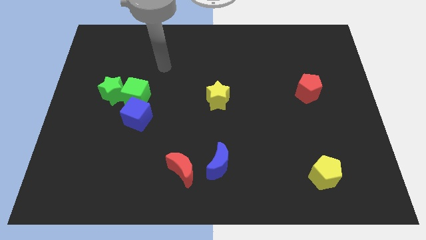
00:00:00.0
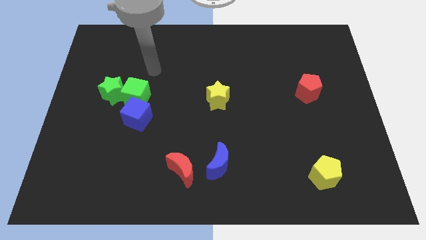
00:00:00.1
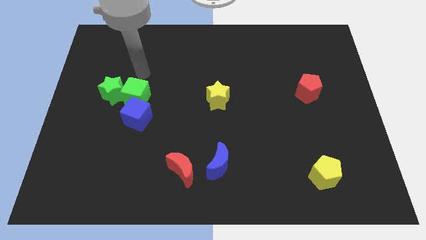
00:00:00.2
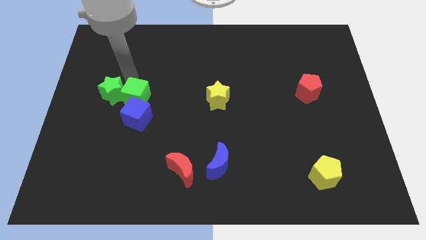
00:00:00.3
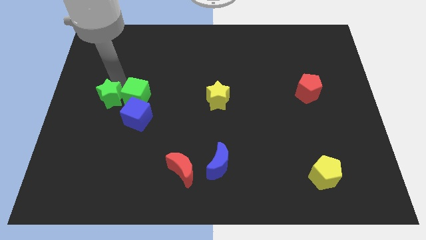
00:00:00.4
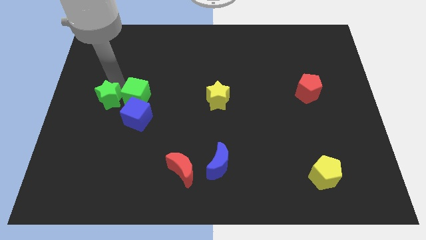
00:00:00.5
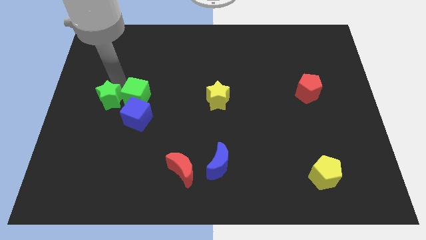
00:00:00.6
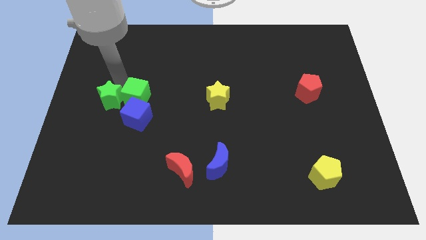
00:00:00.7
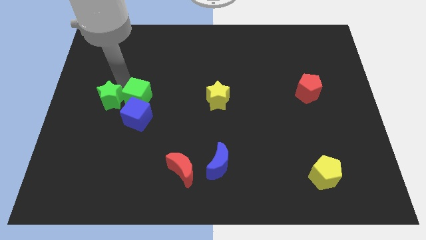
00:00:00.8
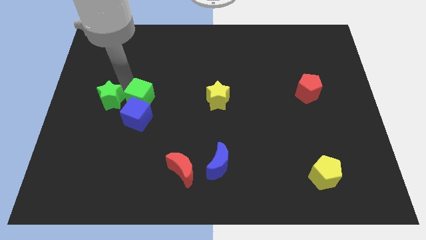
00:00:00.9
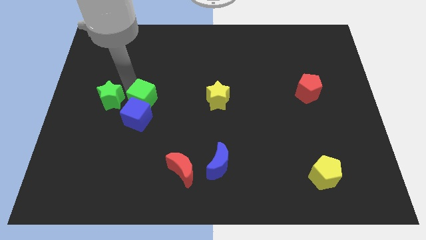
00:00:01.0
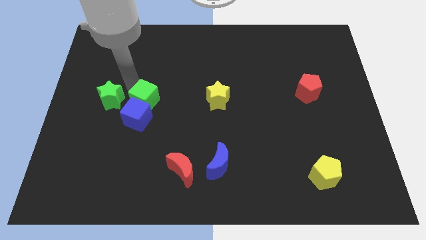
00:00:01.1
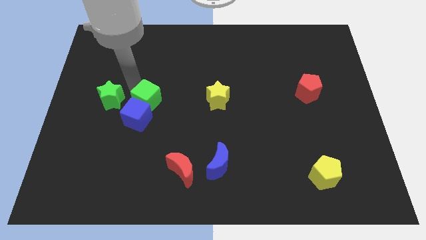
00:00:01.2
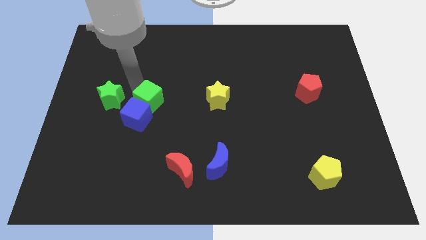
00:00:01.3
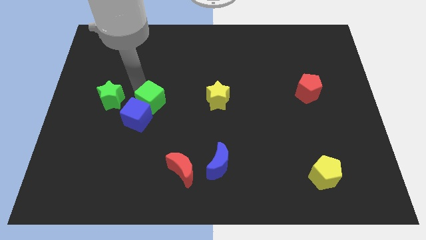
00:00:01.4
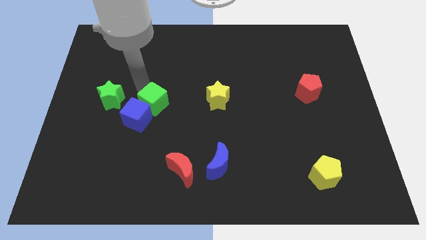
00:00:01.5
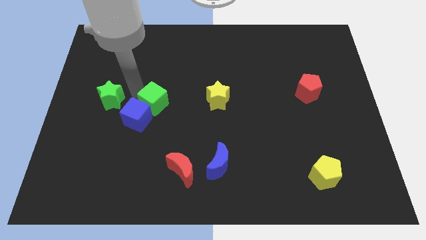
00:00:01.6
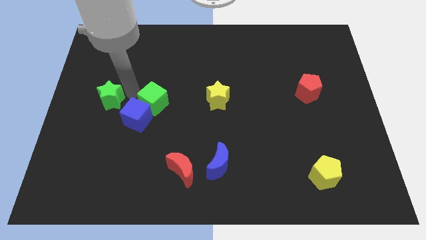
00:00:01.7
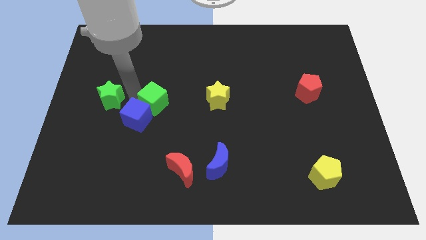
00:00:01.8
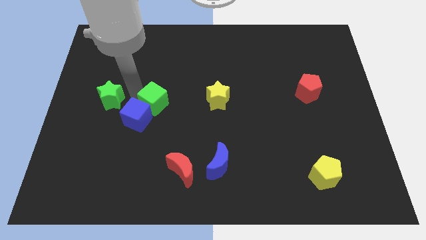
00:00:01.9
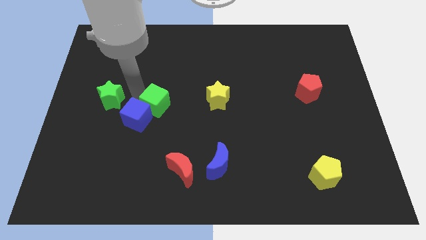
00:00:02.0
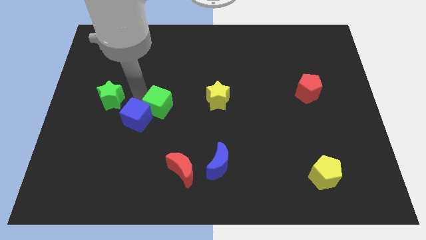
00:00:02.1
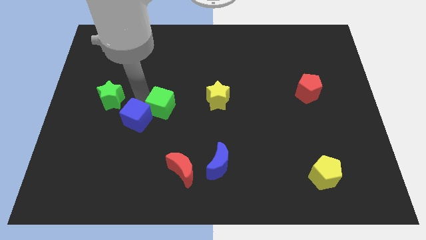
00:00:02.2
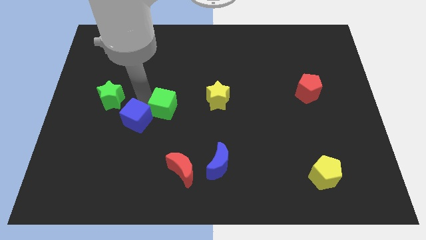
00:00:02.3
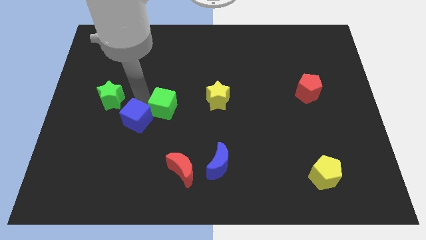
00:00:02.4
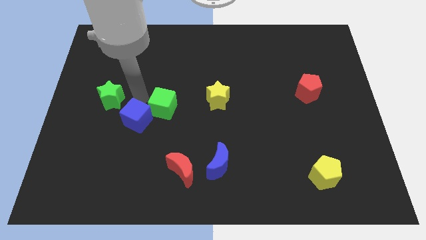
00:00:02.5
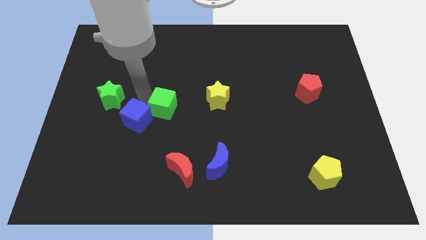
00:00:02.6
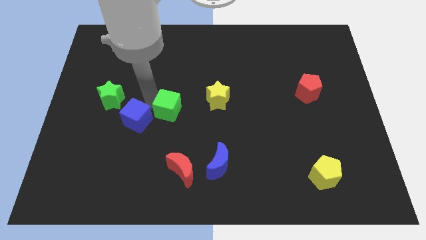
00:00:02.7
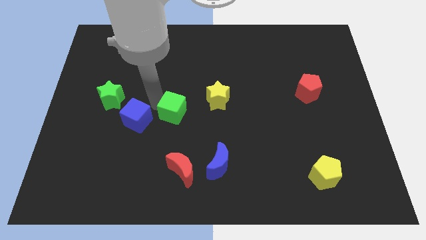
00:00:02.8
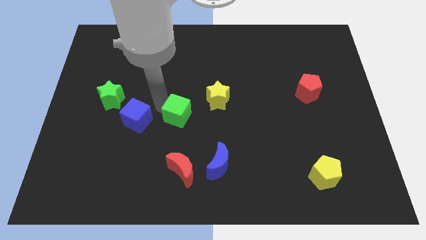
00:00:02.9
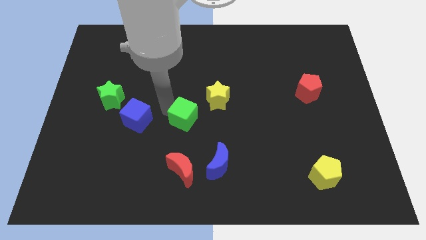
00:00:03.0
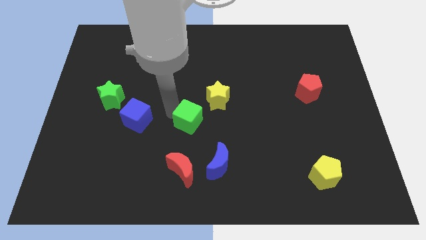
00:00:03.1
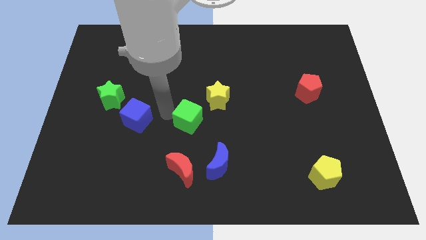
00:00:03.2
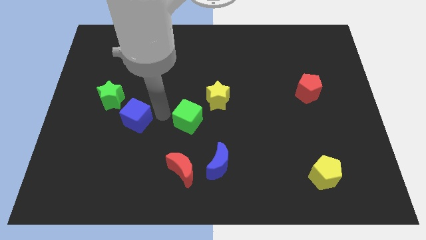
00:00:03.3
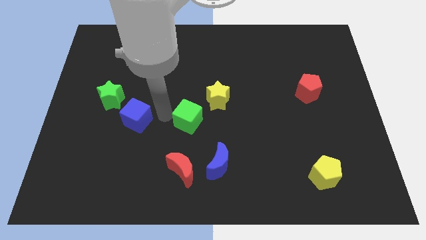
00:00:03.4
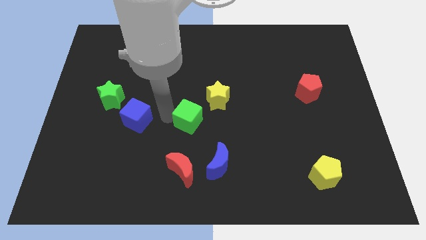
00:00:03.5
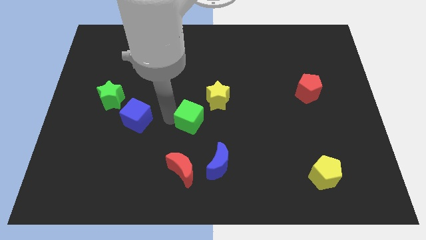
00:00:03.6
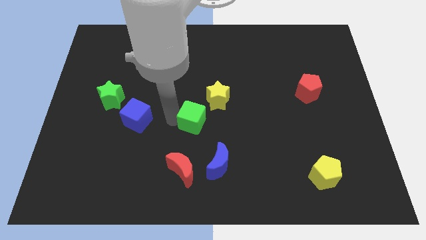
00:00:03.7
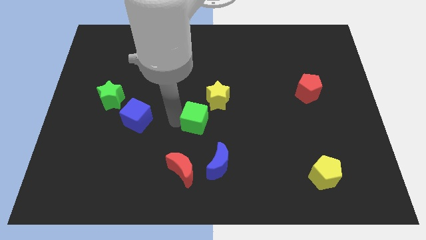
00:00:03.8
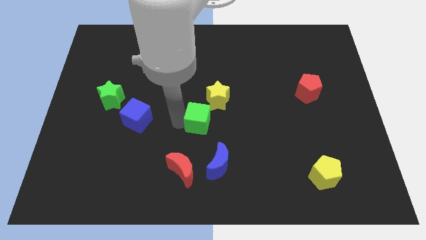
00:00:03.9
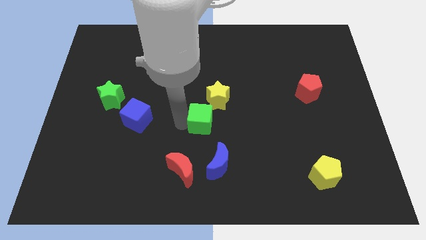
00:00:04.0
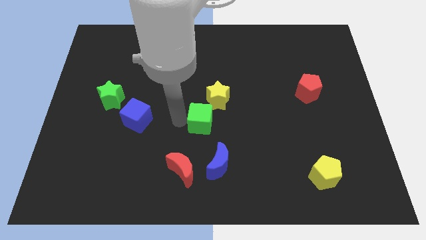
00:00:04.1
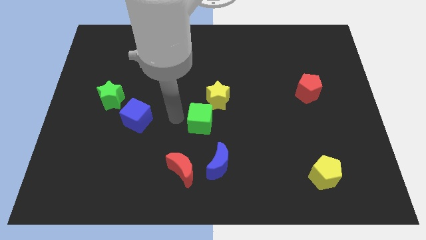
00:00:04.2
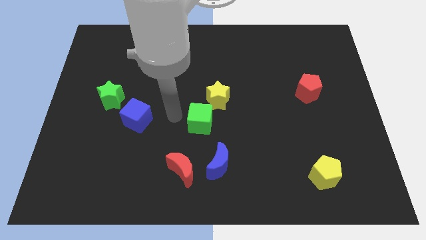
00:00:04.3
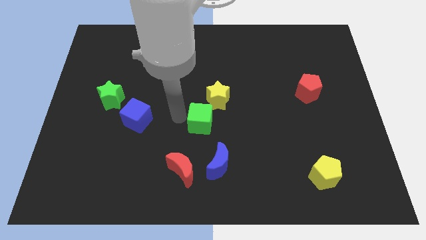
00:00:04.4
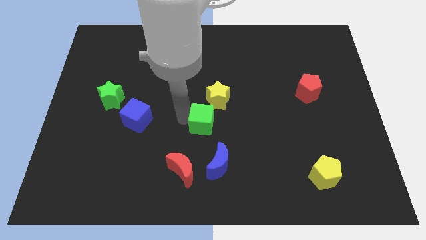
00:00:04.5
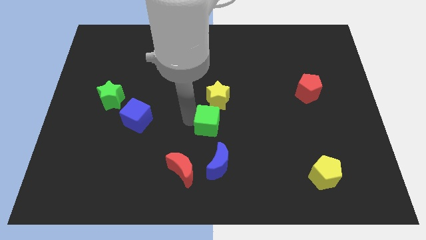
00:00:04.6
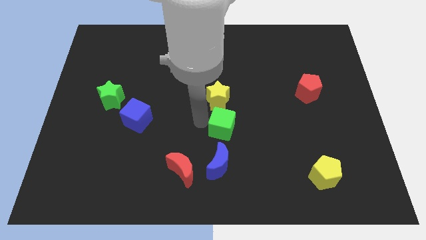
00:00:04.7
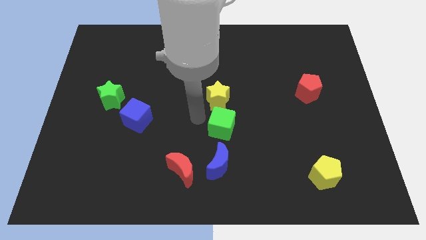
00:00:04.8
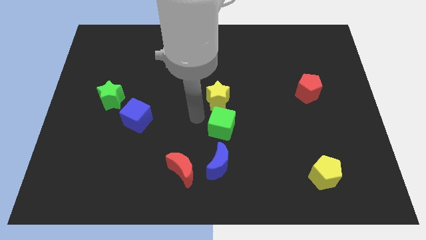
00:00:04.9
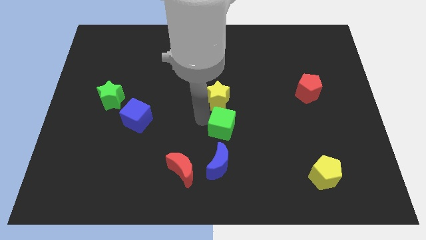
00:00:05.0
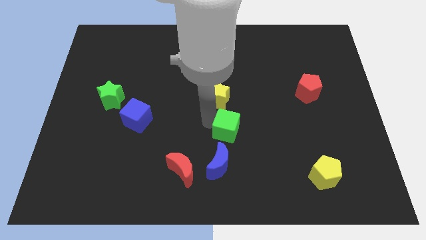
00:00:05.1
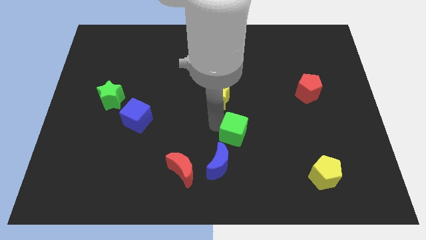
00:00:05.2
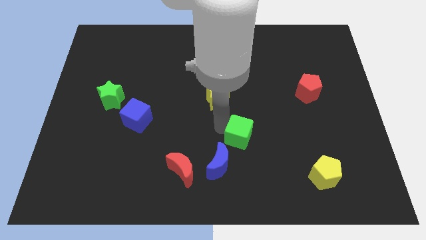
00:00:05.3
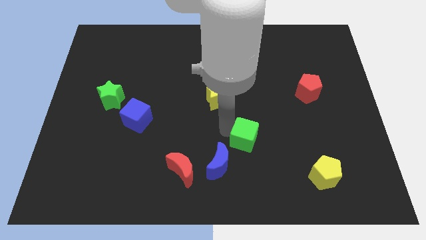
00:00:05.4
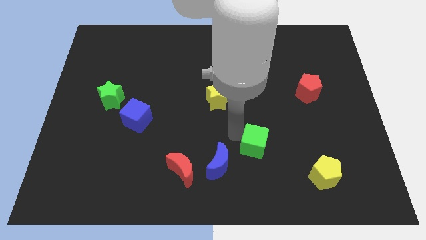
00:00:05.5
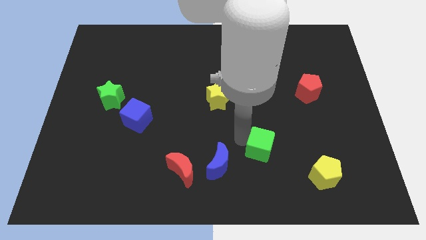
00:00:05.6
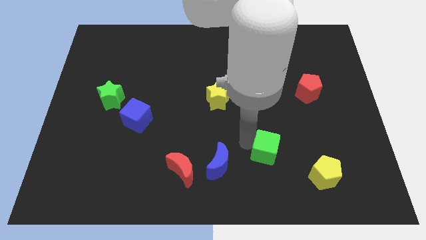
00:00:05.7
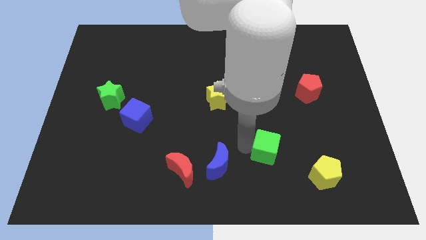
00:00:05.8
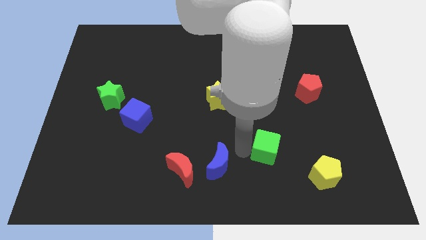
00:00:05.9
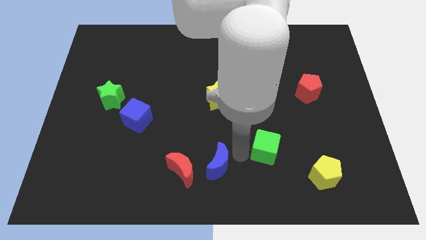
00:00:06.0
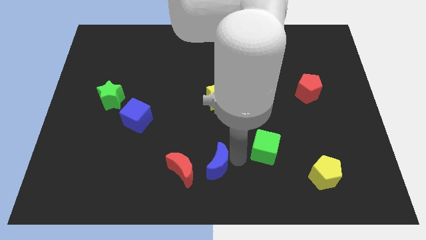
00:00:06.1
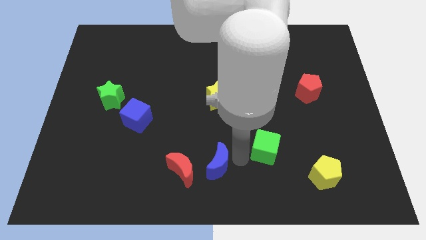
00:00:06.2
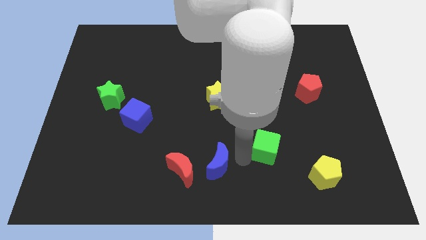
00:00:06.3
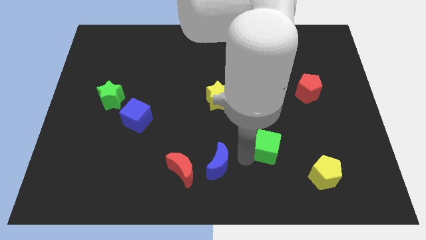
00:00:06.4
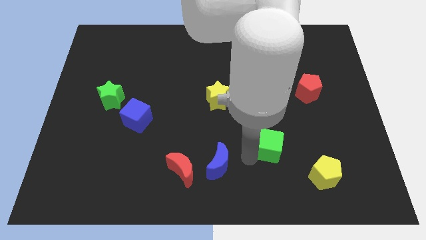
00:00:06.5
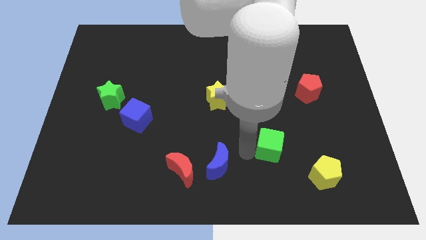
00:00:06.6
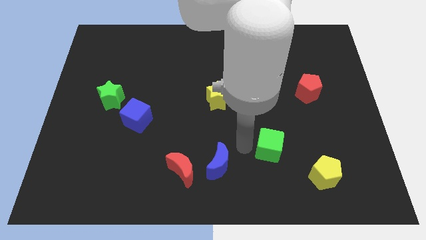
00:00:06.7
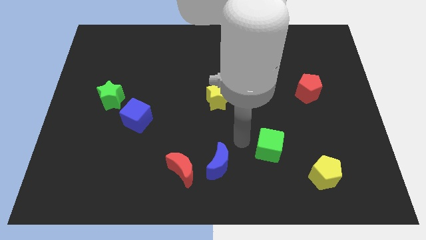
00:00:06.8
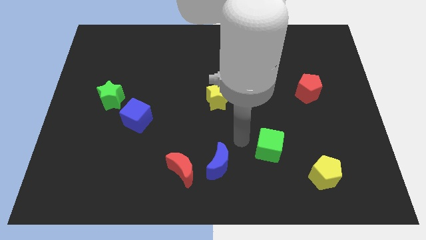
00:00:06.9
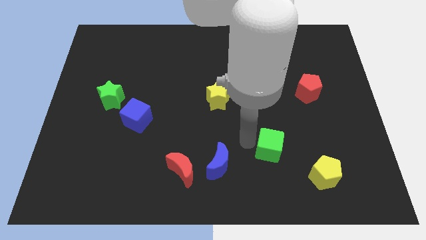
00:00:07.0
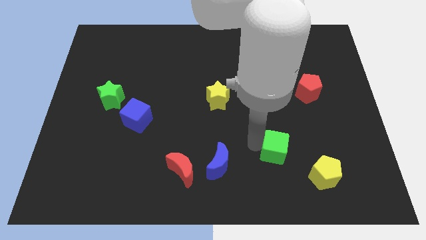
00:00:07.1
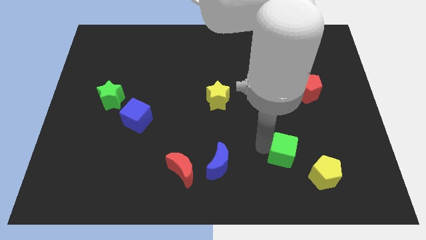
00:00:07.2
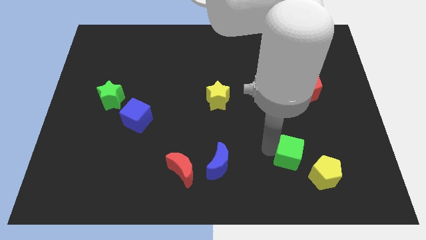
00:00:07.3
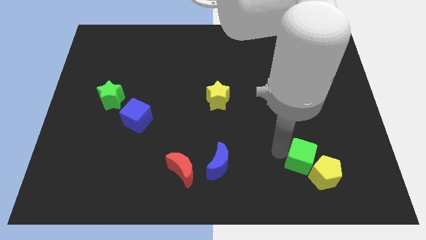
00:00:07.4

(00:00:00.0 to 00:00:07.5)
put the green cube to the yellow pentagon
